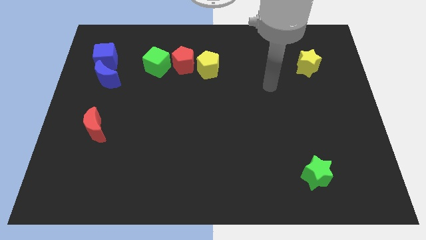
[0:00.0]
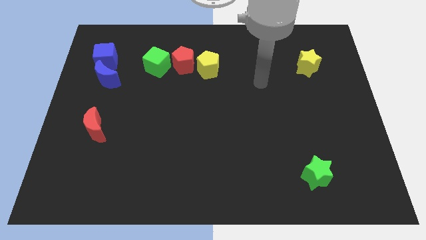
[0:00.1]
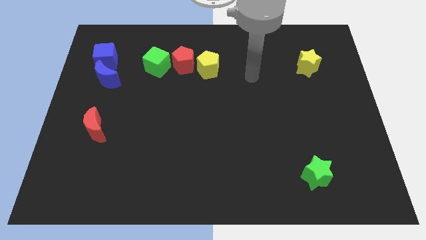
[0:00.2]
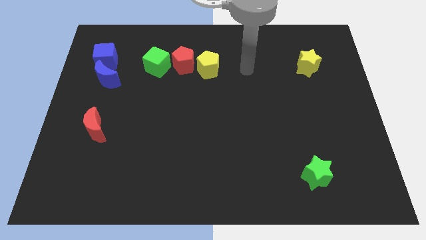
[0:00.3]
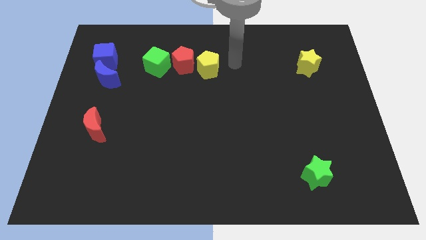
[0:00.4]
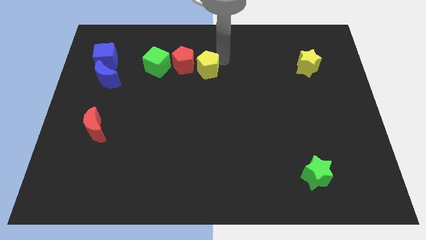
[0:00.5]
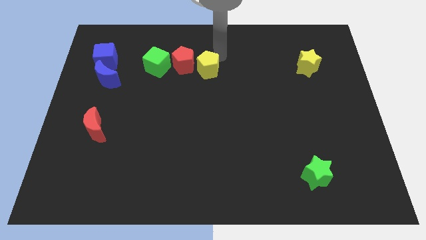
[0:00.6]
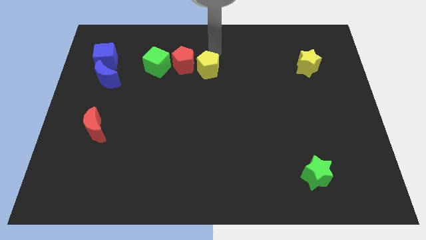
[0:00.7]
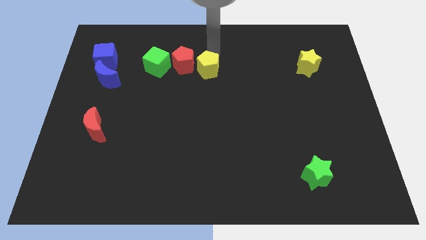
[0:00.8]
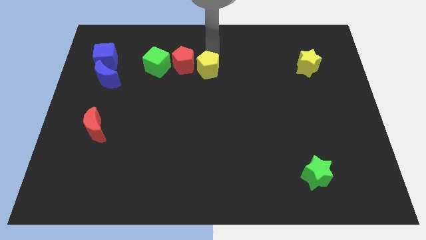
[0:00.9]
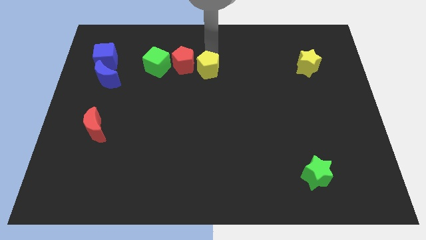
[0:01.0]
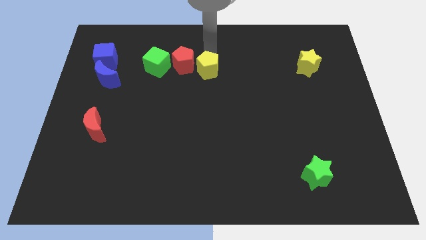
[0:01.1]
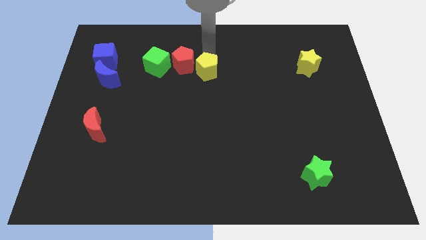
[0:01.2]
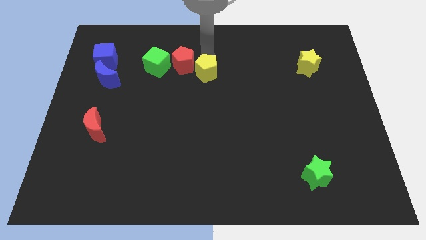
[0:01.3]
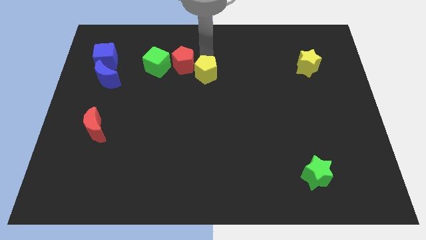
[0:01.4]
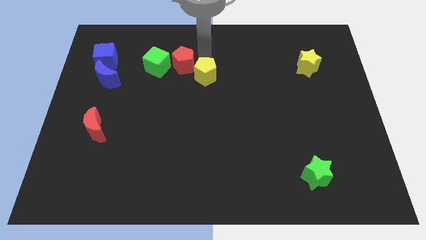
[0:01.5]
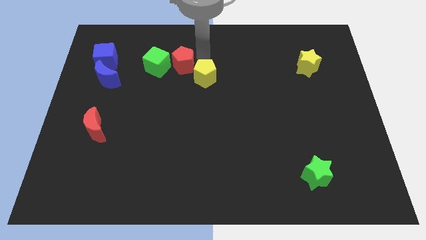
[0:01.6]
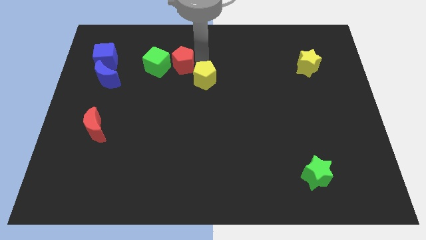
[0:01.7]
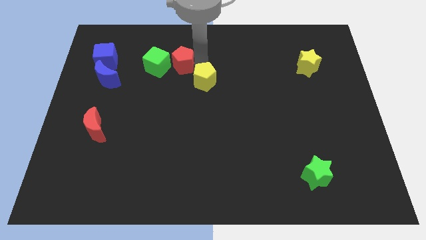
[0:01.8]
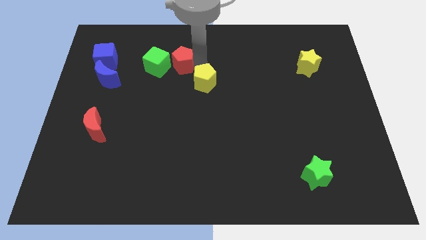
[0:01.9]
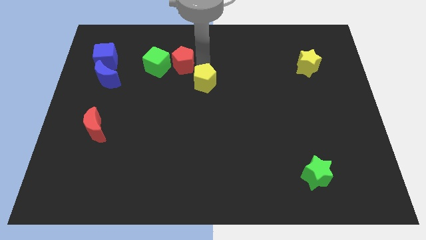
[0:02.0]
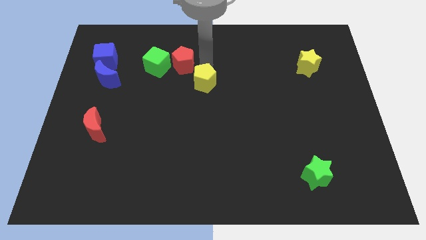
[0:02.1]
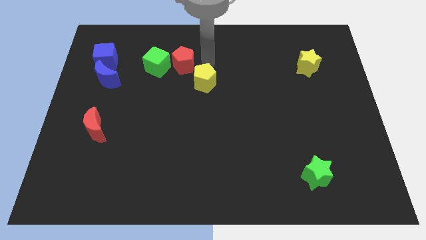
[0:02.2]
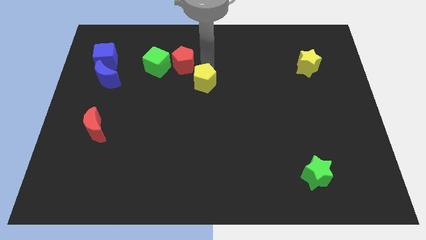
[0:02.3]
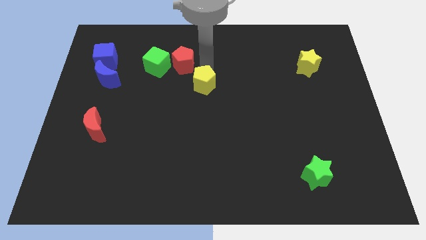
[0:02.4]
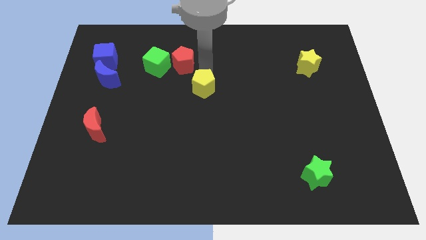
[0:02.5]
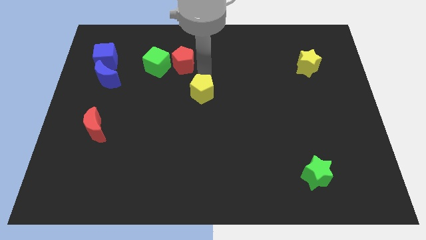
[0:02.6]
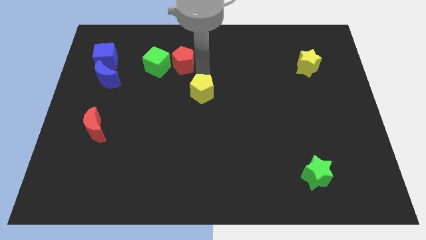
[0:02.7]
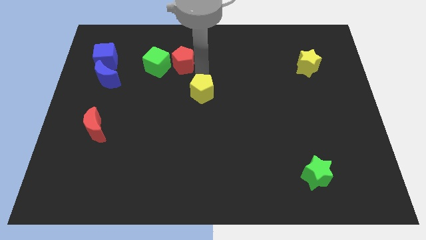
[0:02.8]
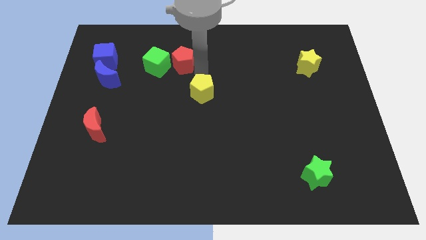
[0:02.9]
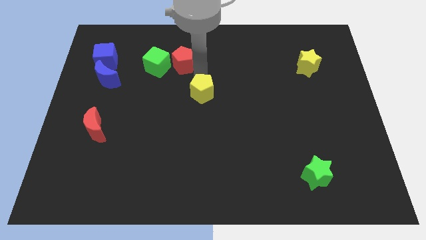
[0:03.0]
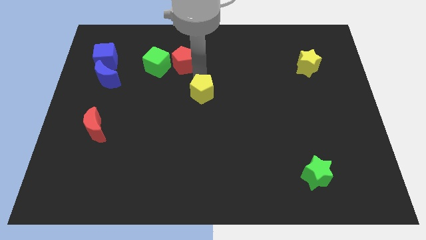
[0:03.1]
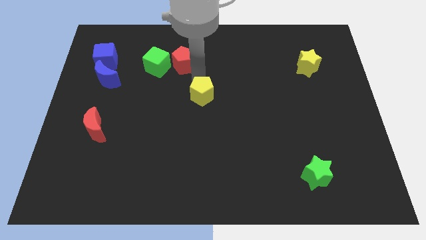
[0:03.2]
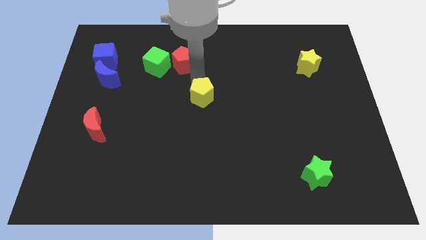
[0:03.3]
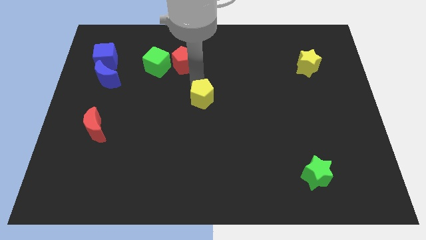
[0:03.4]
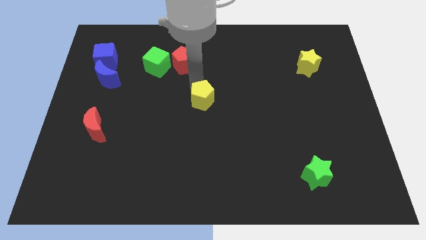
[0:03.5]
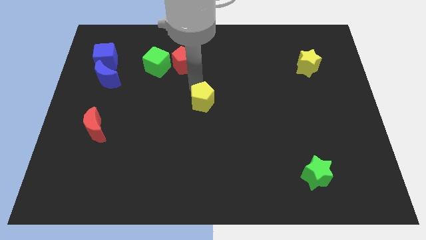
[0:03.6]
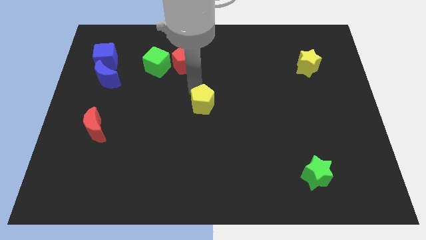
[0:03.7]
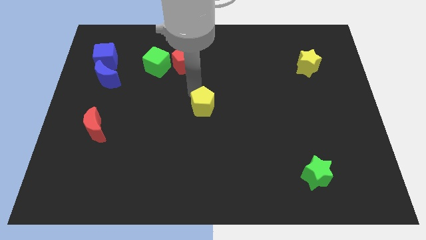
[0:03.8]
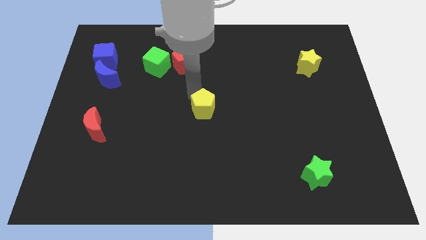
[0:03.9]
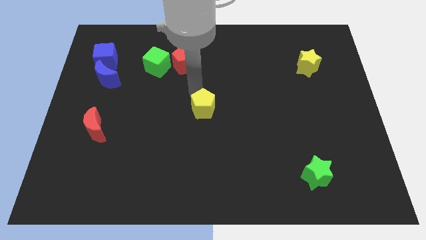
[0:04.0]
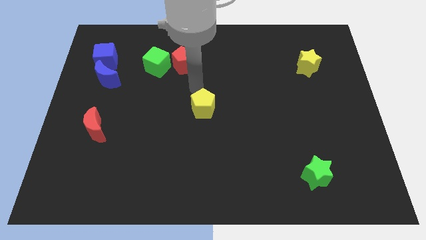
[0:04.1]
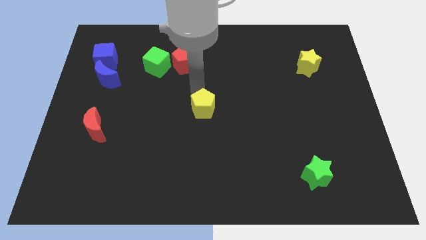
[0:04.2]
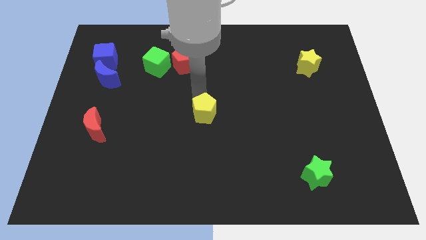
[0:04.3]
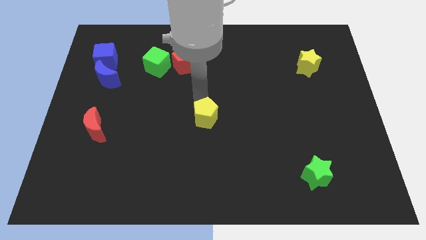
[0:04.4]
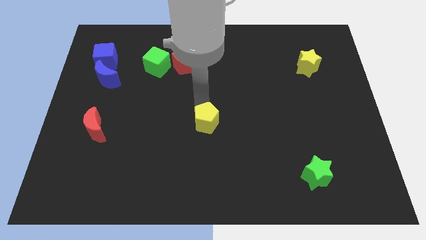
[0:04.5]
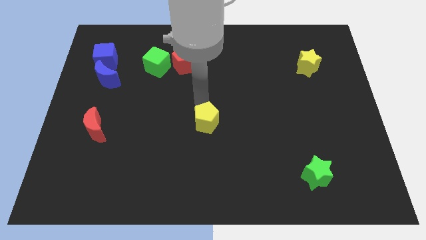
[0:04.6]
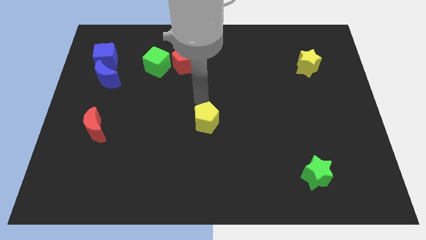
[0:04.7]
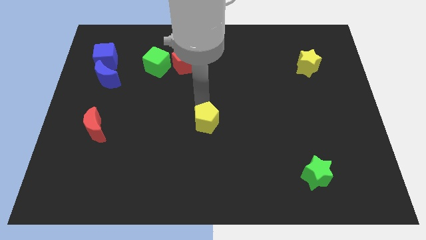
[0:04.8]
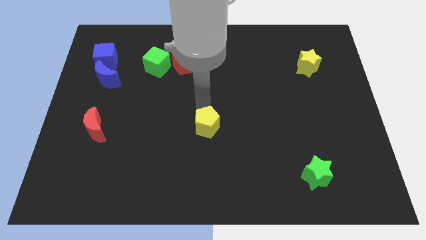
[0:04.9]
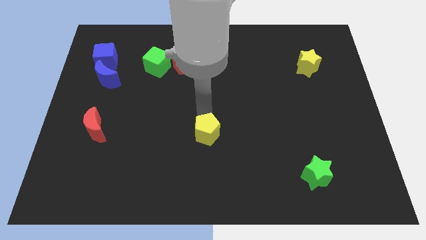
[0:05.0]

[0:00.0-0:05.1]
push the yellow pentagon downwards

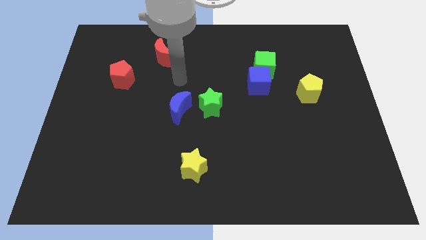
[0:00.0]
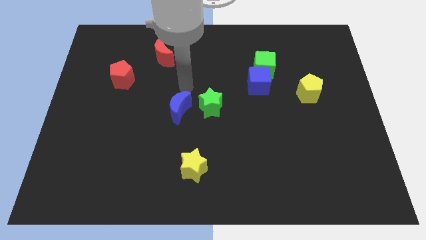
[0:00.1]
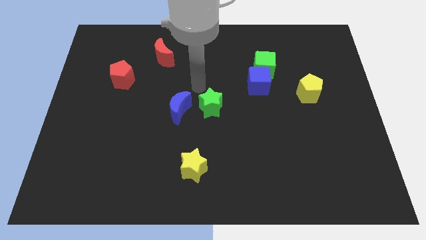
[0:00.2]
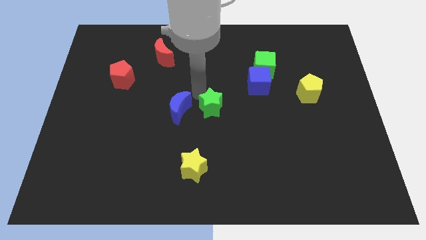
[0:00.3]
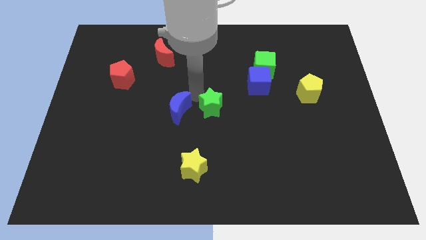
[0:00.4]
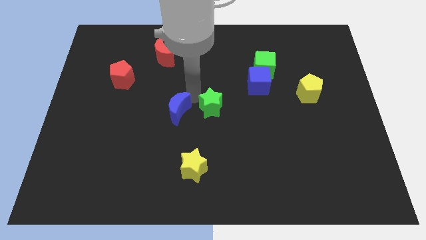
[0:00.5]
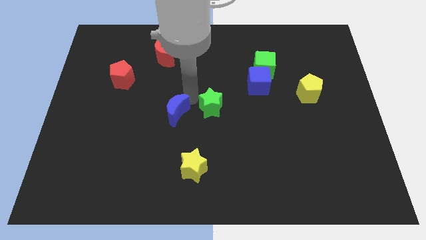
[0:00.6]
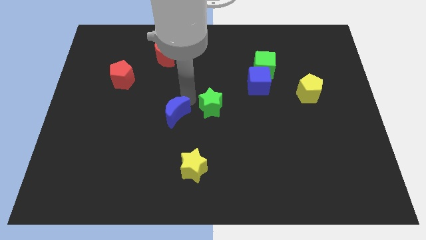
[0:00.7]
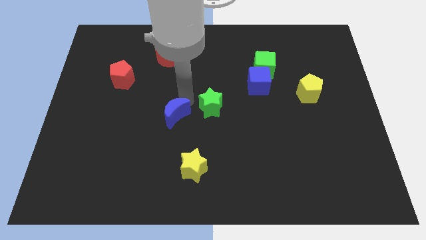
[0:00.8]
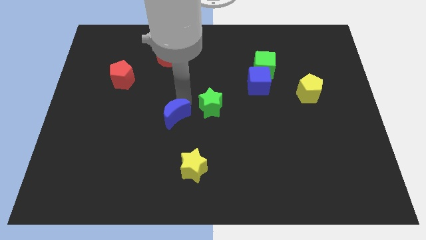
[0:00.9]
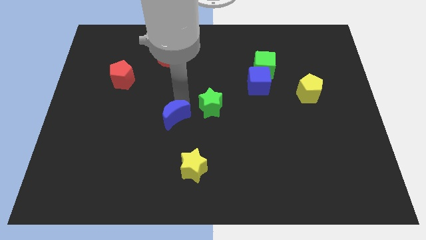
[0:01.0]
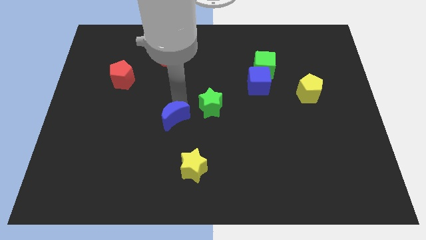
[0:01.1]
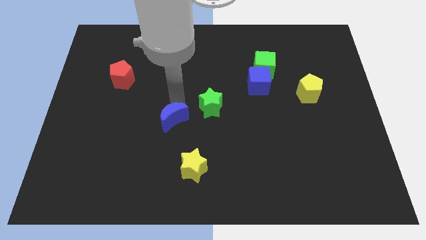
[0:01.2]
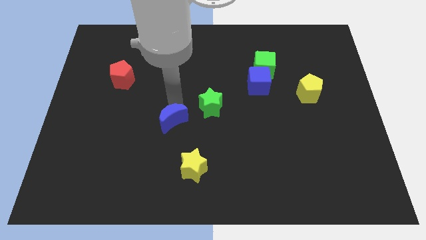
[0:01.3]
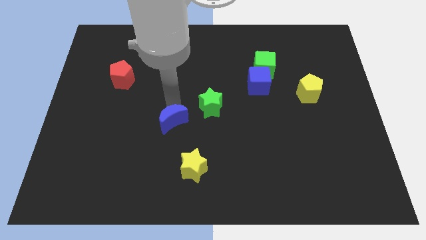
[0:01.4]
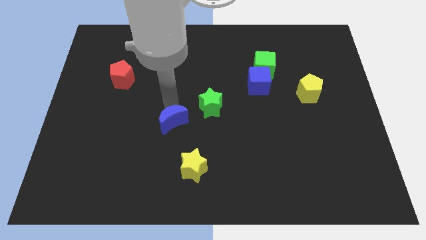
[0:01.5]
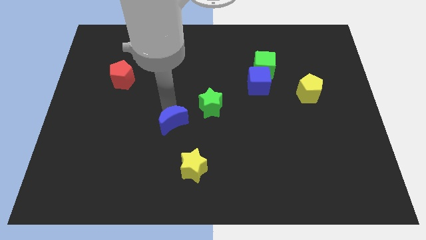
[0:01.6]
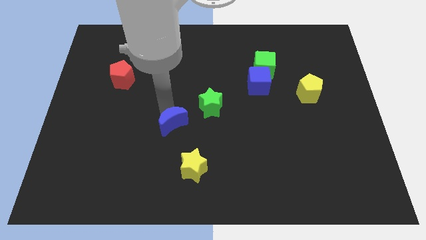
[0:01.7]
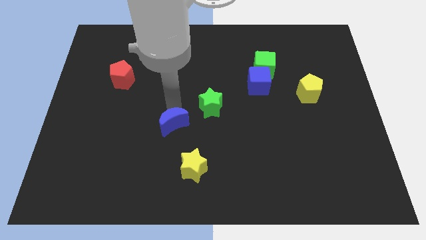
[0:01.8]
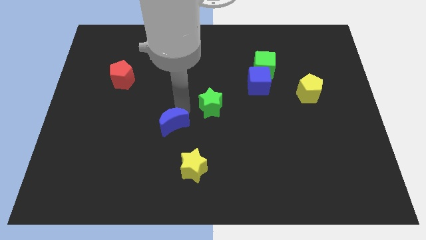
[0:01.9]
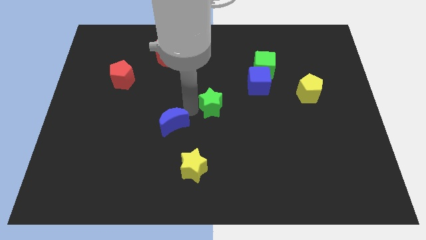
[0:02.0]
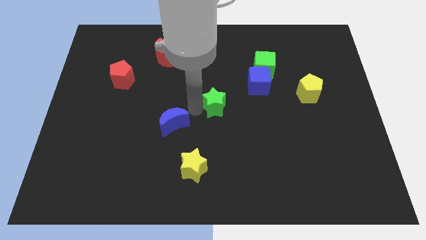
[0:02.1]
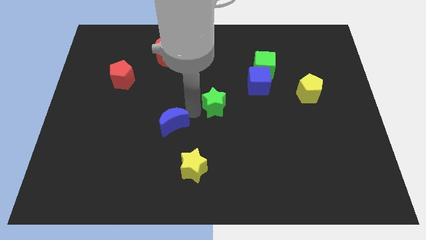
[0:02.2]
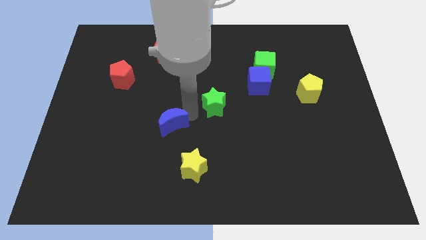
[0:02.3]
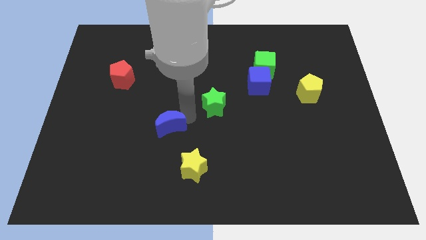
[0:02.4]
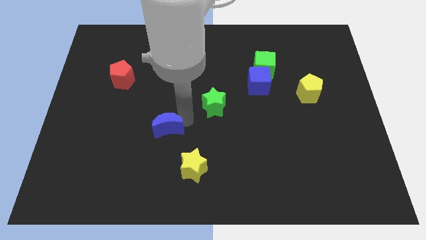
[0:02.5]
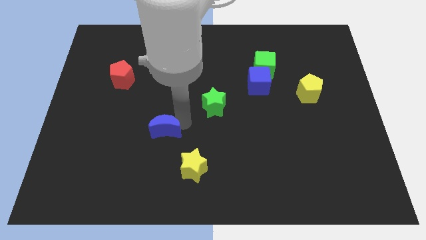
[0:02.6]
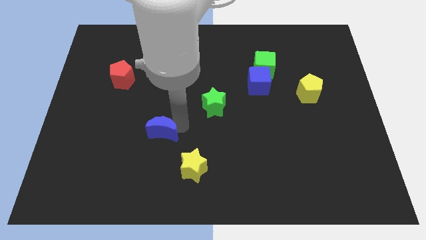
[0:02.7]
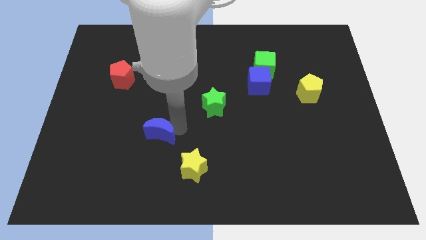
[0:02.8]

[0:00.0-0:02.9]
slightly slide the blue moon down and to the left
